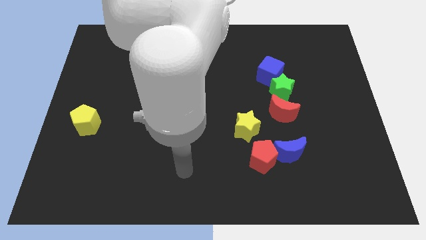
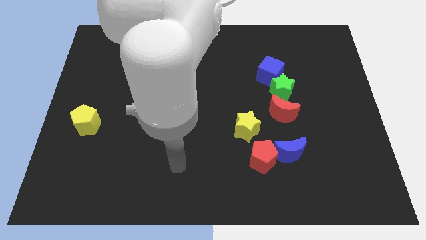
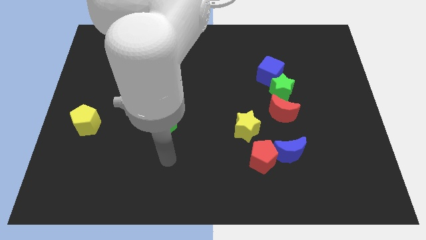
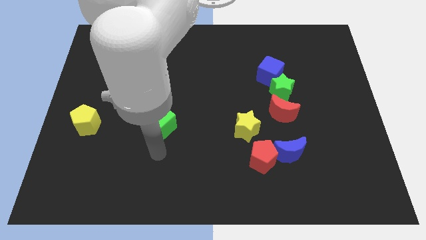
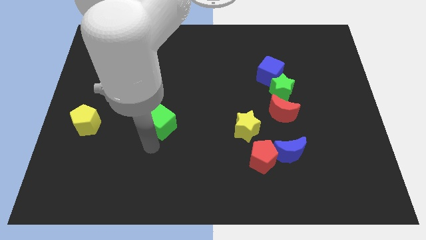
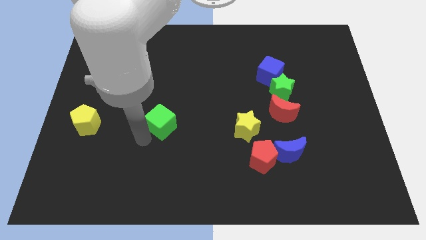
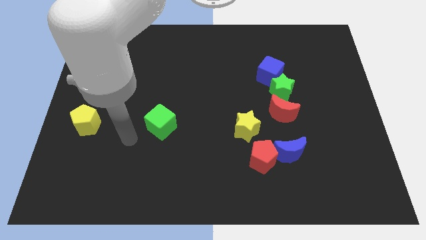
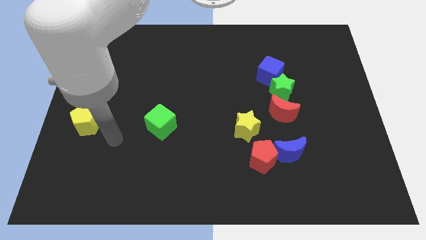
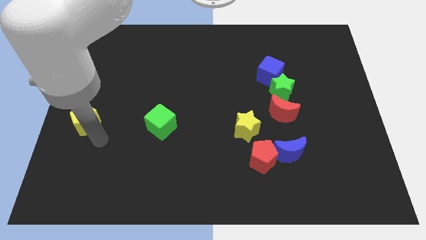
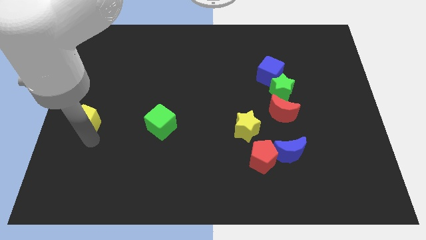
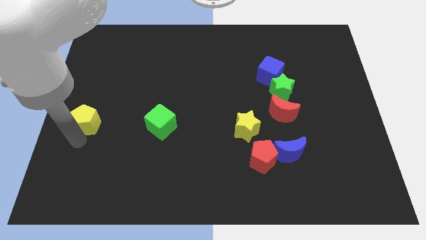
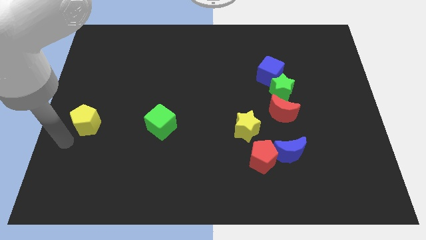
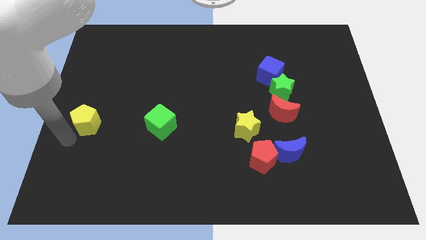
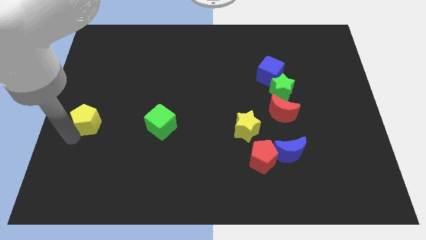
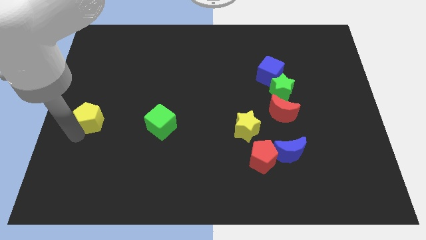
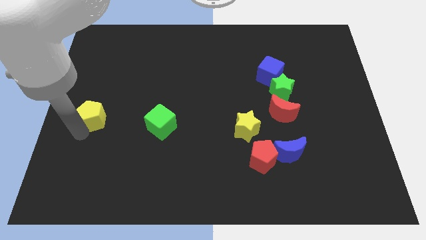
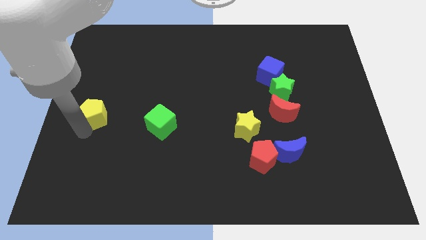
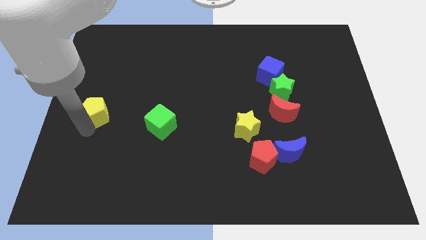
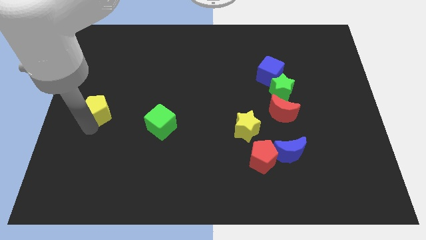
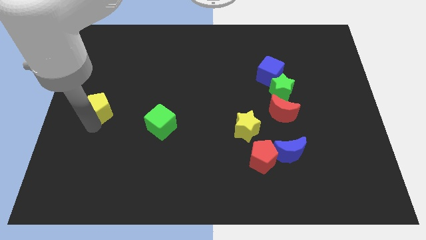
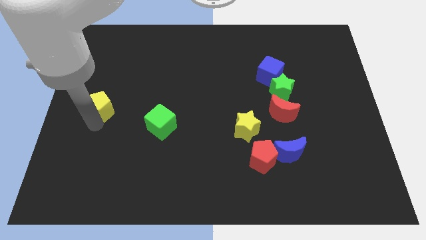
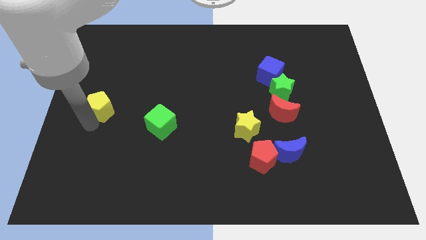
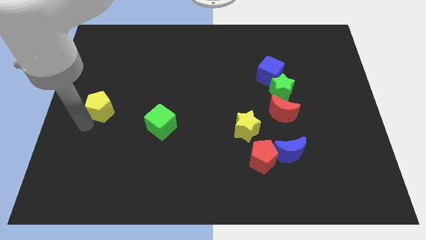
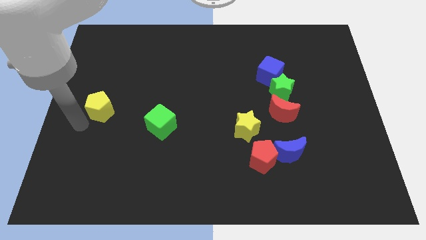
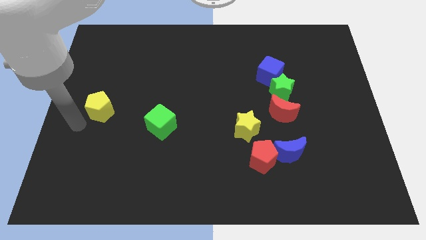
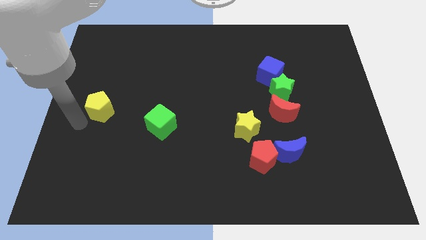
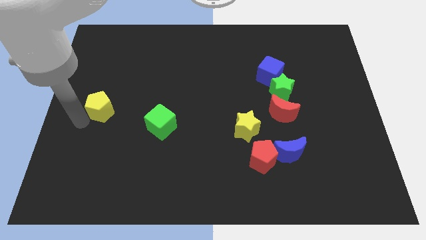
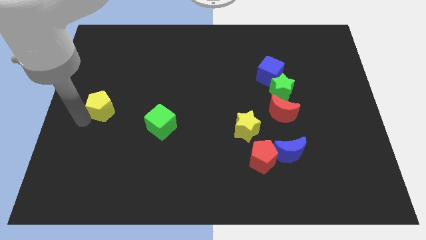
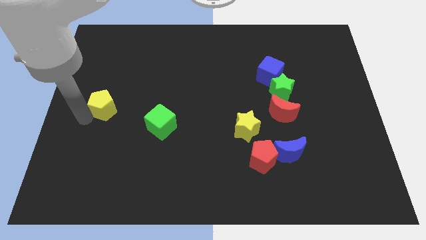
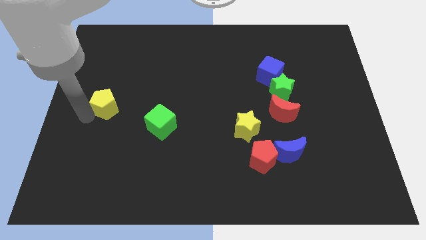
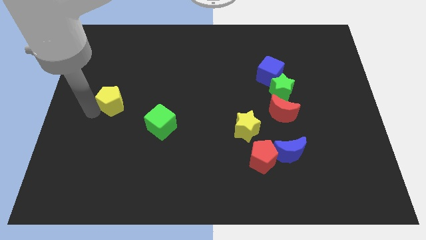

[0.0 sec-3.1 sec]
slide the yellow pentagon up and to the right diagonally a little bit

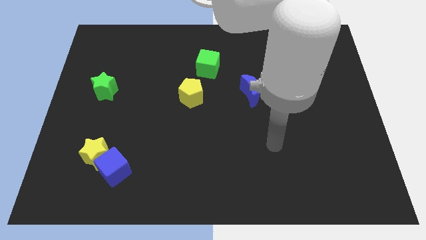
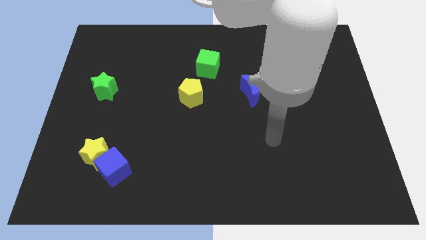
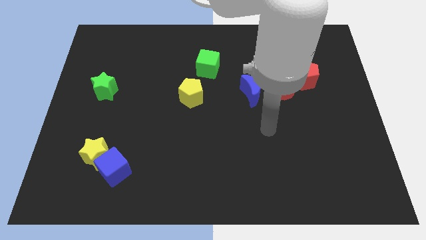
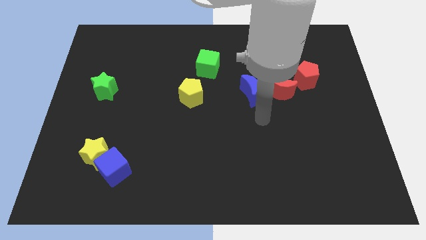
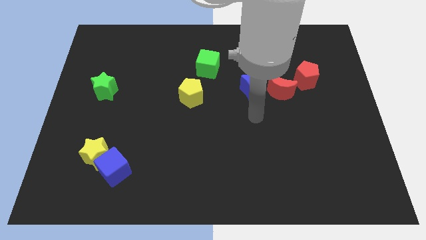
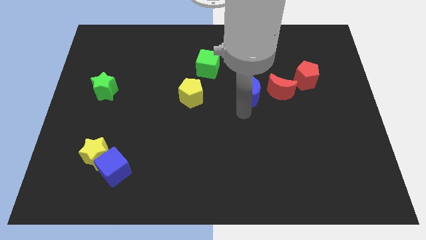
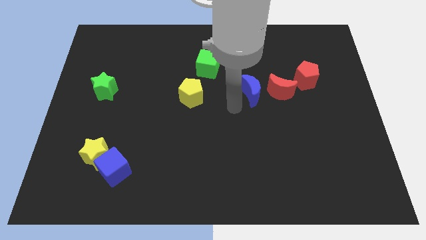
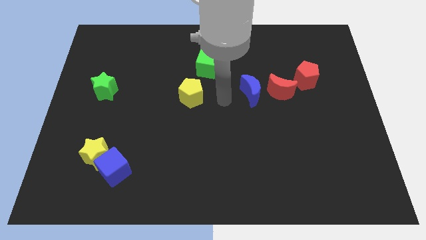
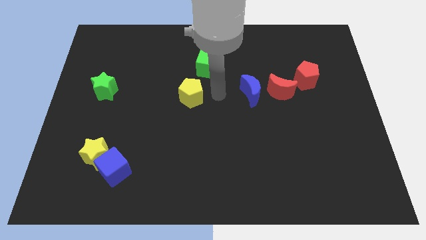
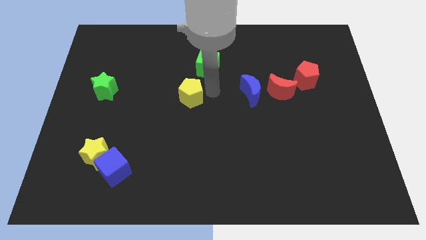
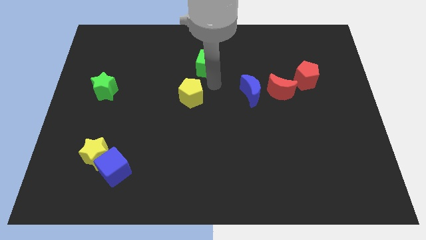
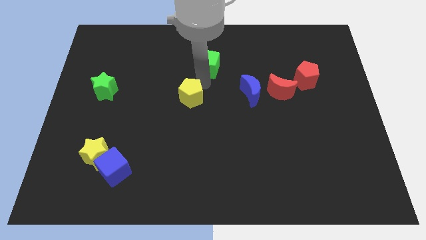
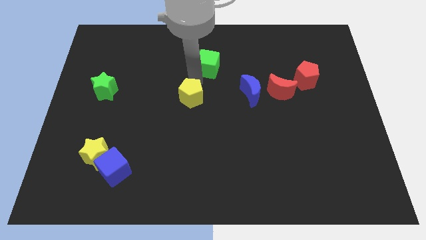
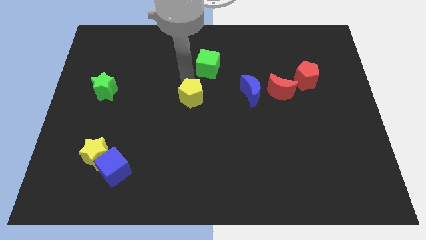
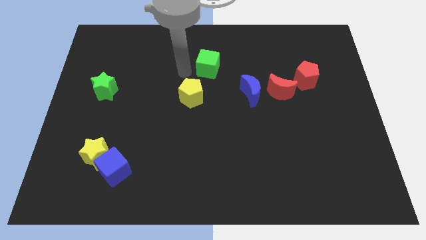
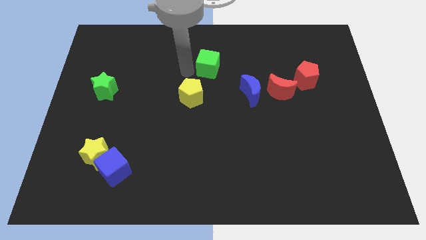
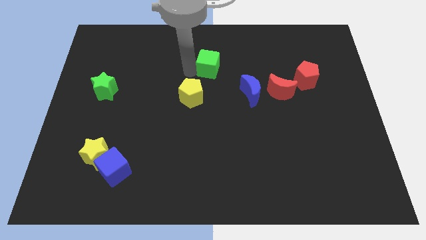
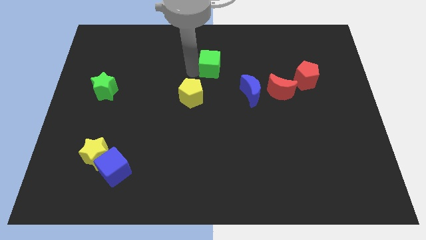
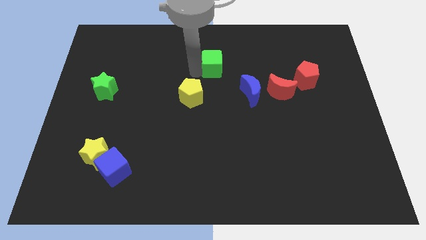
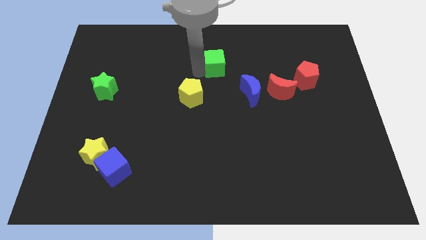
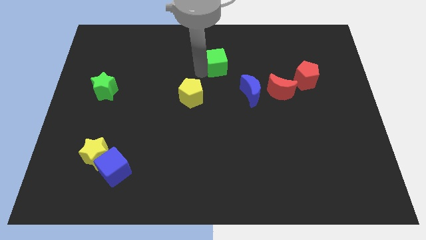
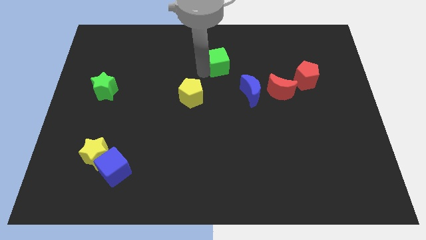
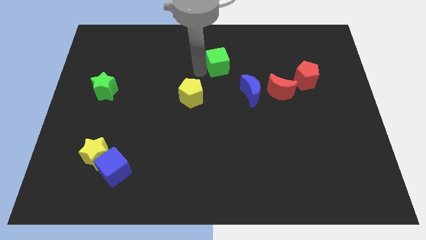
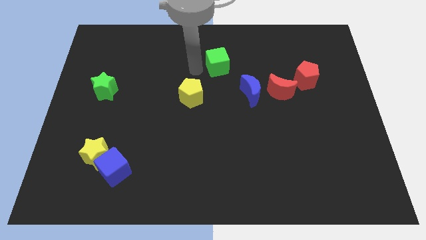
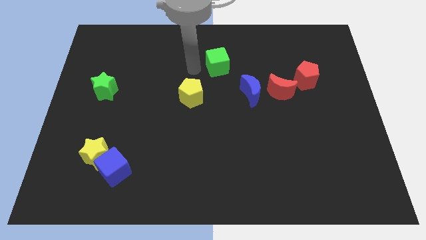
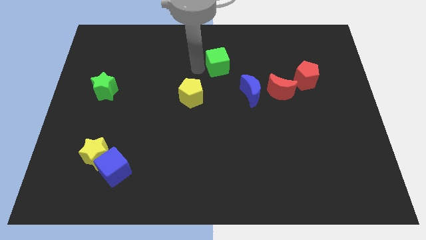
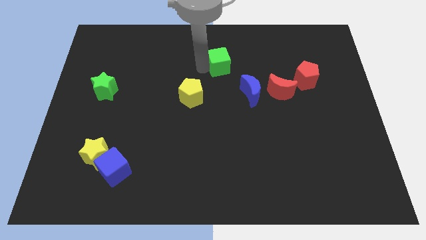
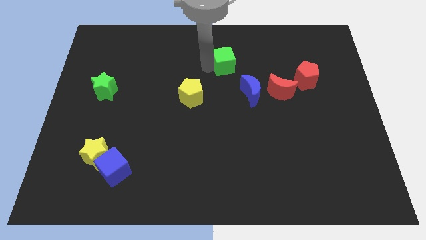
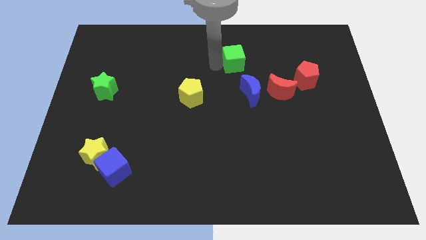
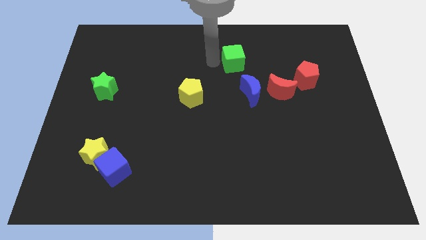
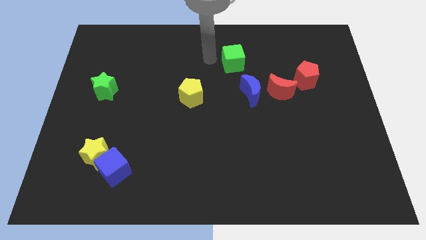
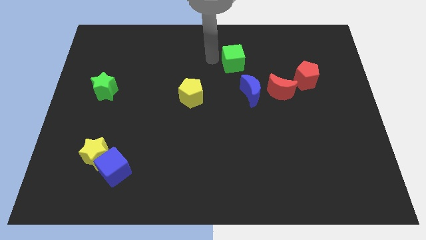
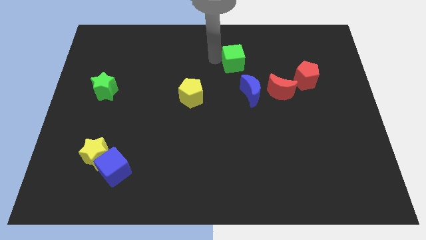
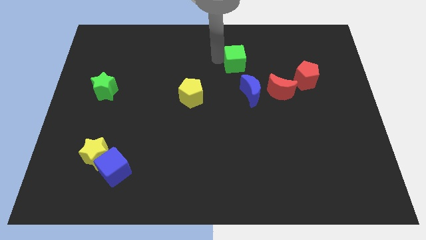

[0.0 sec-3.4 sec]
push the green cube right somewhat

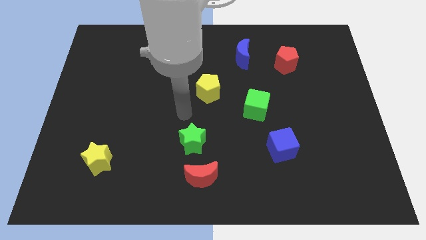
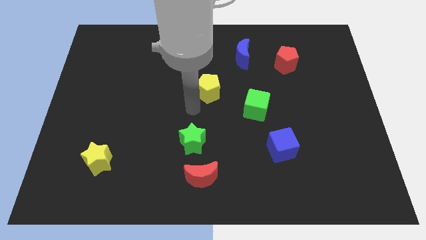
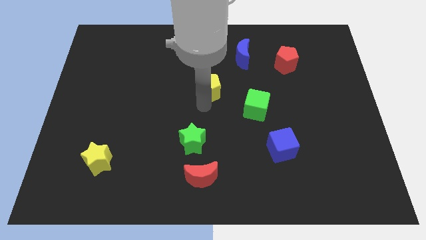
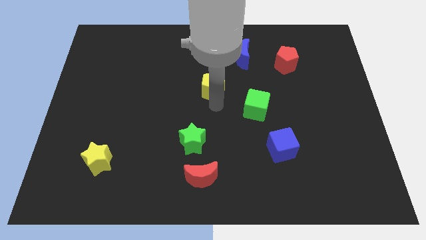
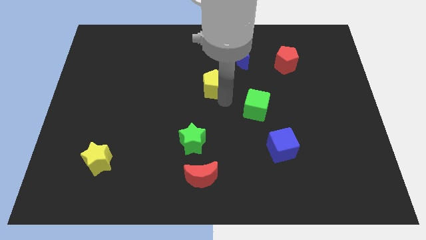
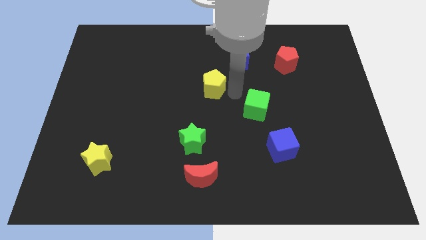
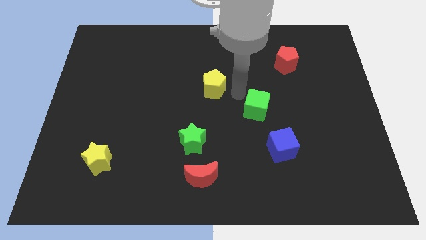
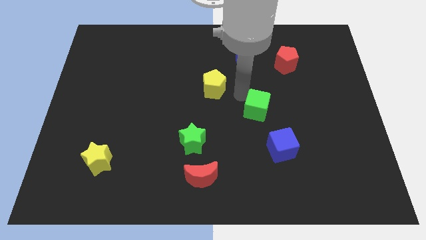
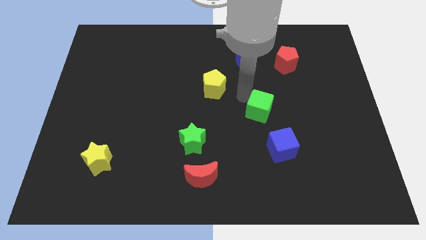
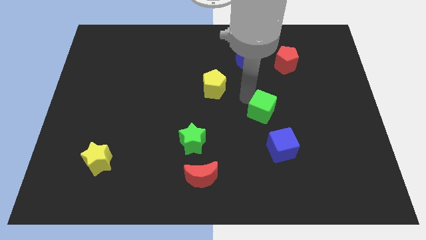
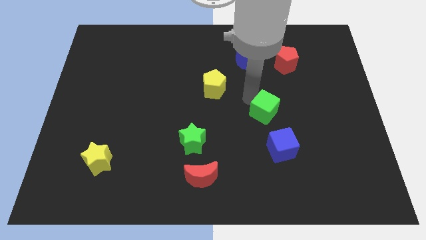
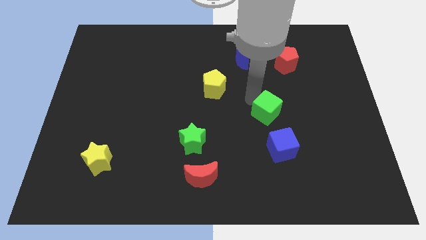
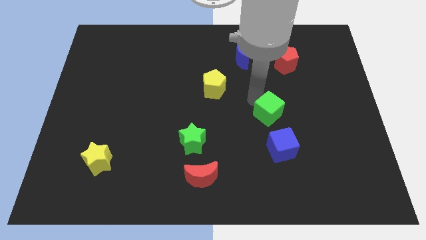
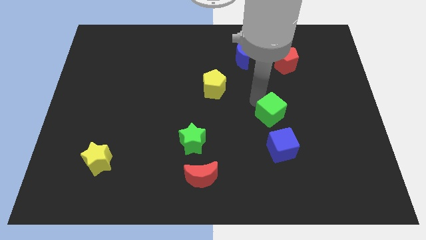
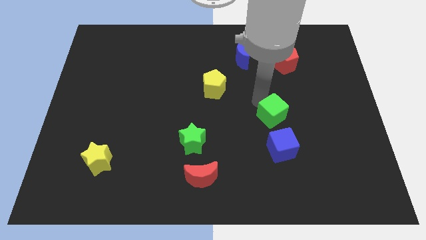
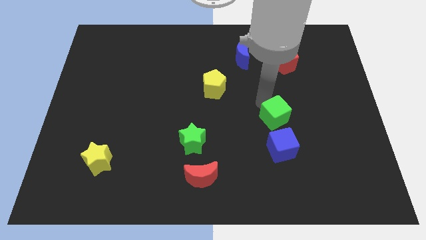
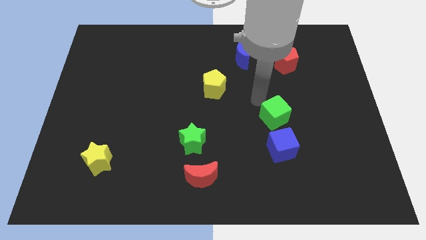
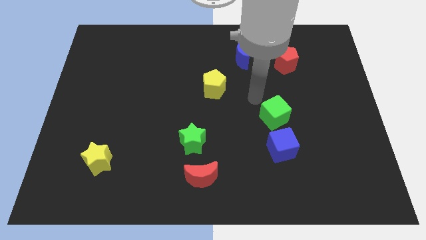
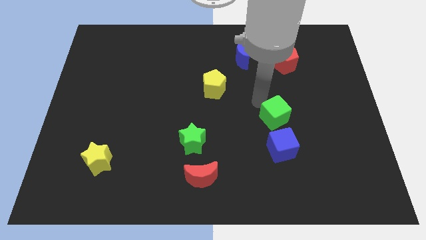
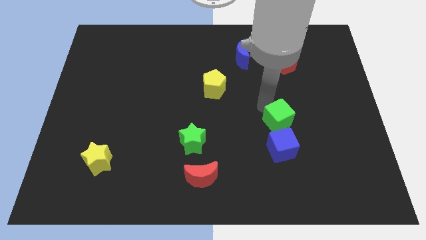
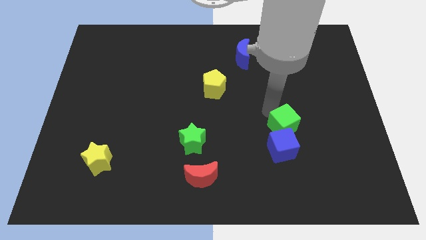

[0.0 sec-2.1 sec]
slide the green cube downwards and then to the right somewhat
